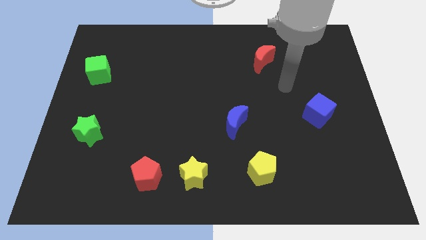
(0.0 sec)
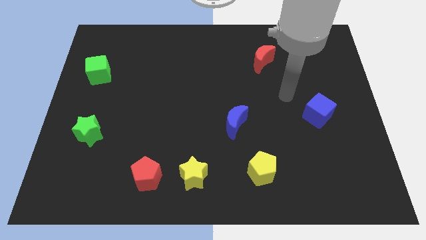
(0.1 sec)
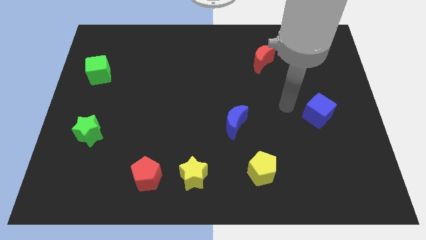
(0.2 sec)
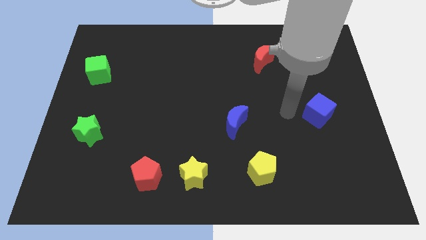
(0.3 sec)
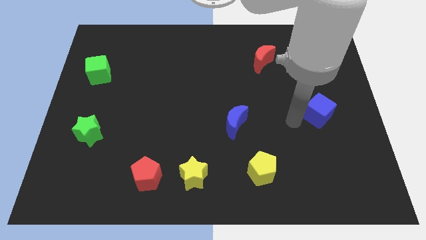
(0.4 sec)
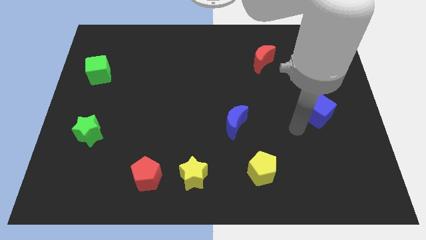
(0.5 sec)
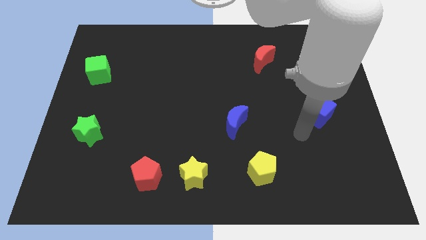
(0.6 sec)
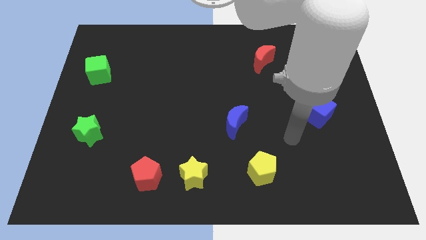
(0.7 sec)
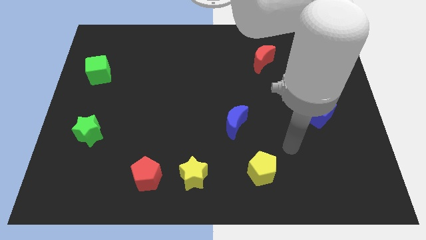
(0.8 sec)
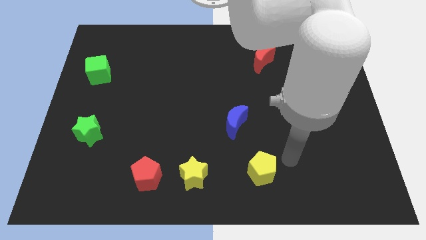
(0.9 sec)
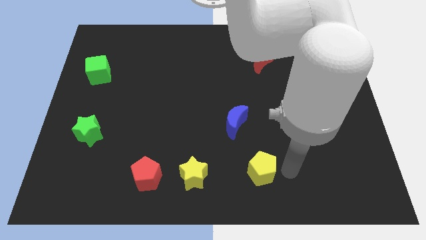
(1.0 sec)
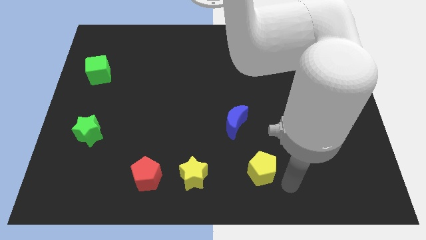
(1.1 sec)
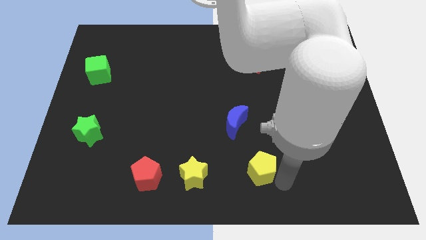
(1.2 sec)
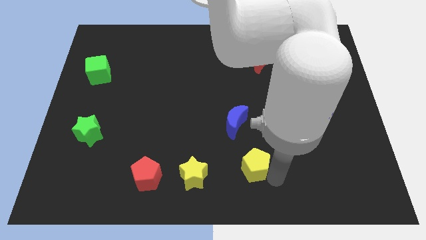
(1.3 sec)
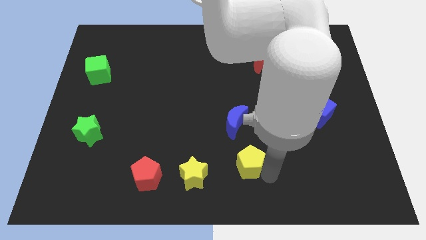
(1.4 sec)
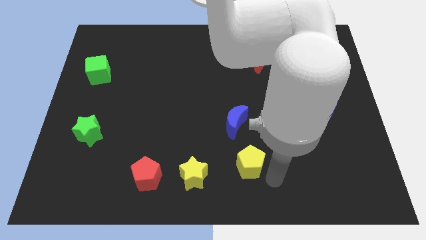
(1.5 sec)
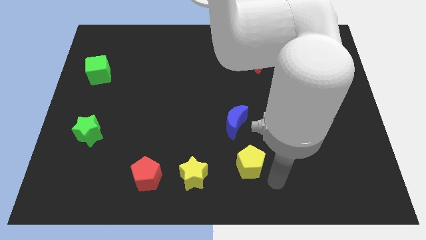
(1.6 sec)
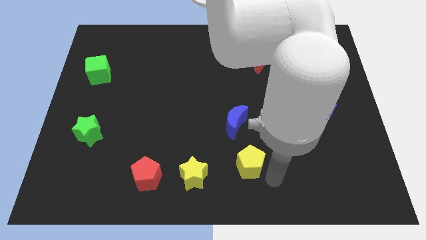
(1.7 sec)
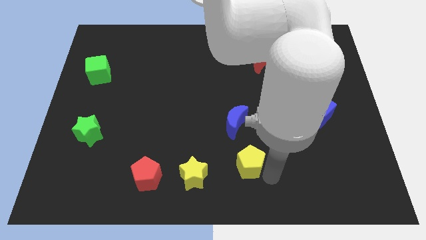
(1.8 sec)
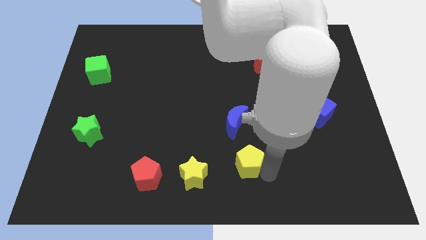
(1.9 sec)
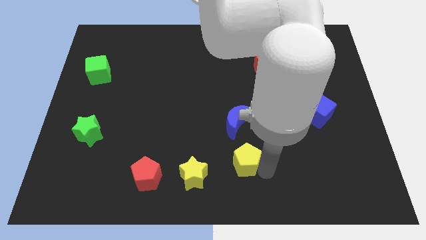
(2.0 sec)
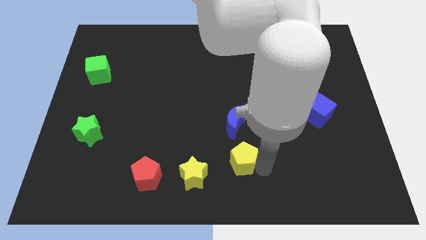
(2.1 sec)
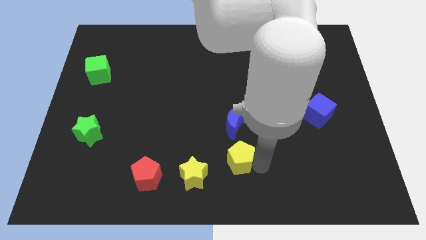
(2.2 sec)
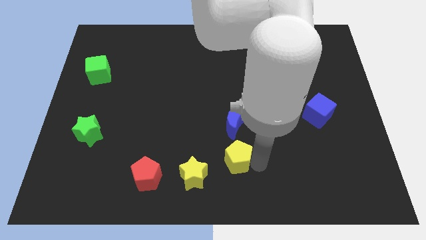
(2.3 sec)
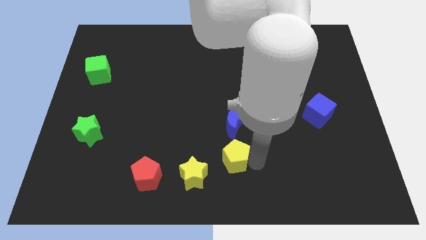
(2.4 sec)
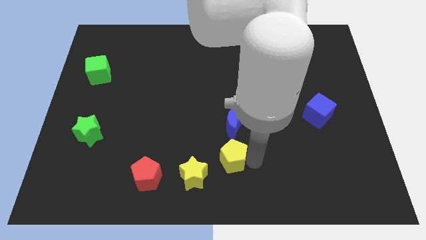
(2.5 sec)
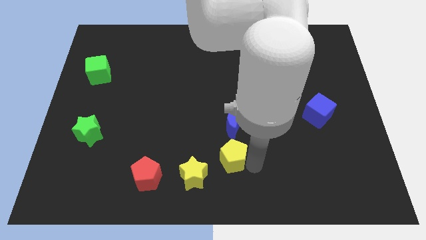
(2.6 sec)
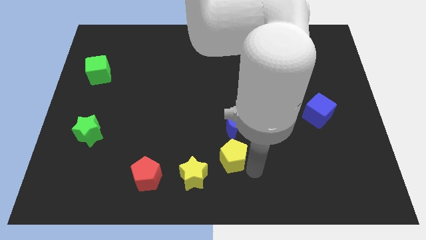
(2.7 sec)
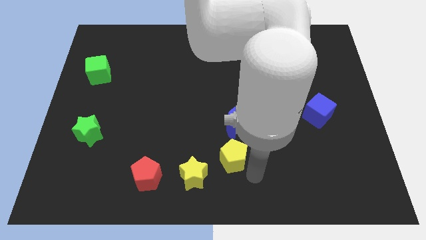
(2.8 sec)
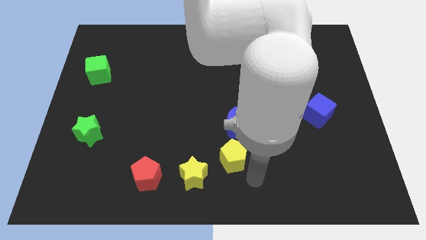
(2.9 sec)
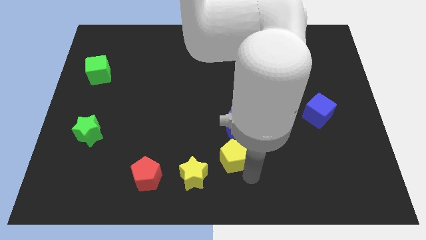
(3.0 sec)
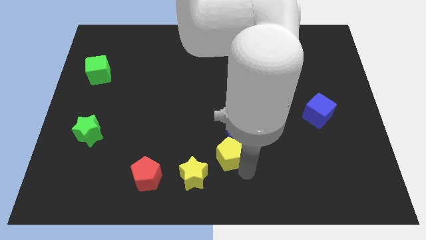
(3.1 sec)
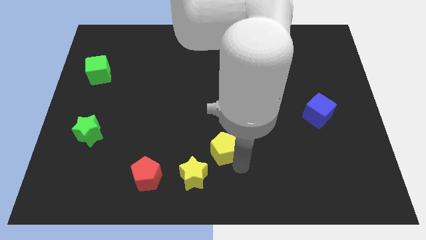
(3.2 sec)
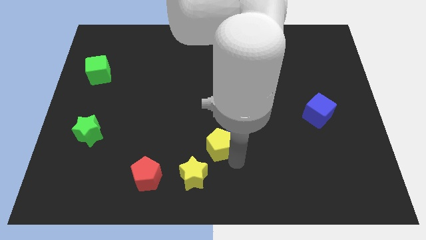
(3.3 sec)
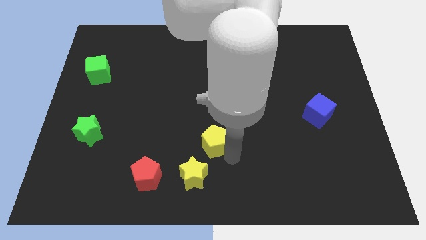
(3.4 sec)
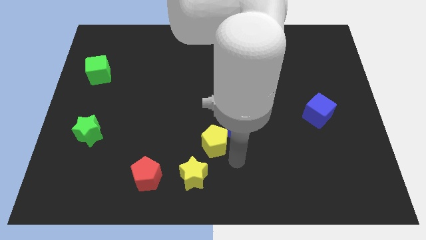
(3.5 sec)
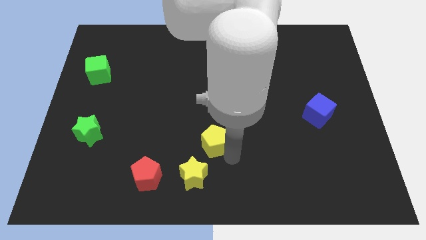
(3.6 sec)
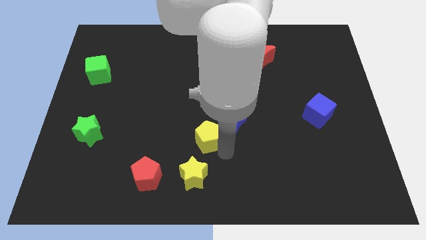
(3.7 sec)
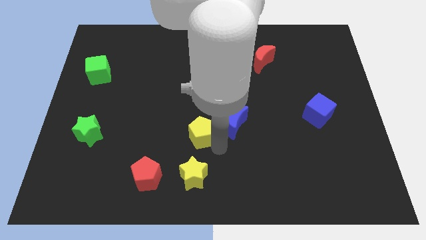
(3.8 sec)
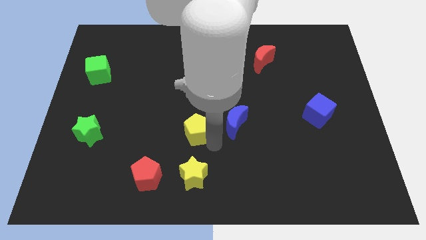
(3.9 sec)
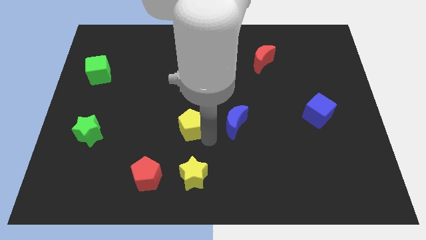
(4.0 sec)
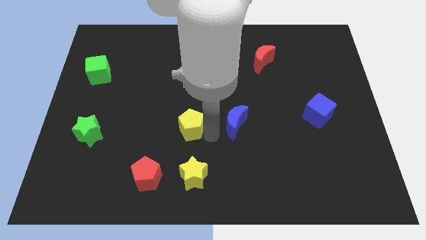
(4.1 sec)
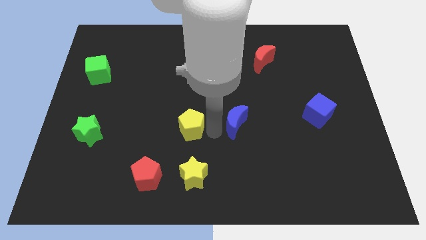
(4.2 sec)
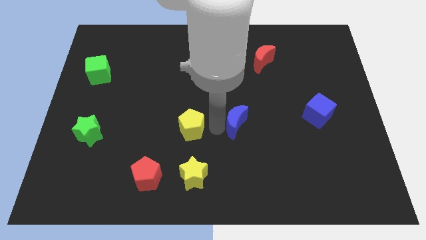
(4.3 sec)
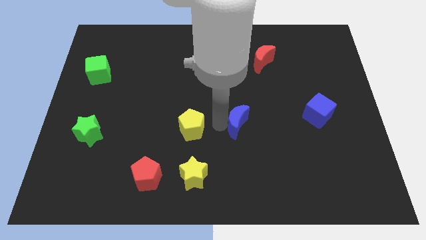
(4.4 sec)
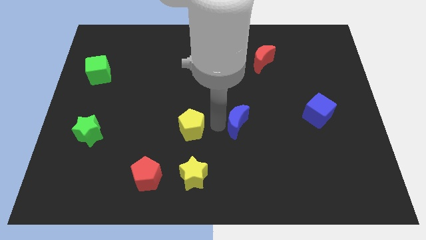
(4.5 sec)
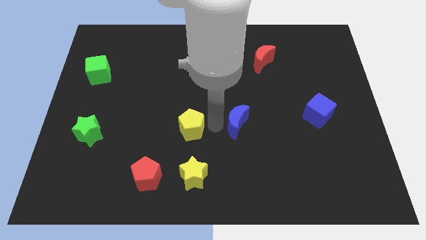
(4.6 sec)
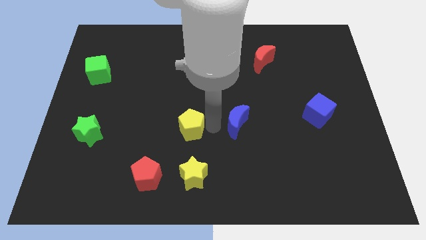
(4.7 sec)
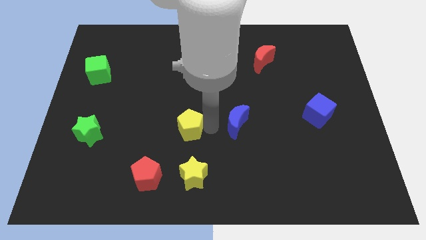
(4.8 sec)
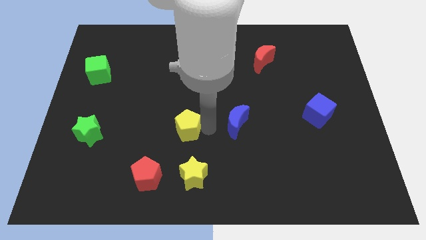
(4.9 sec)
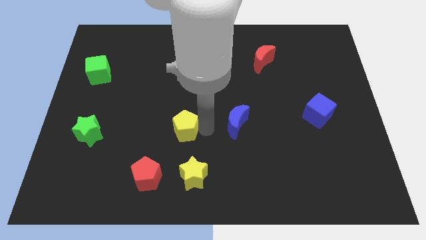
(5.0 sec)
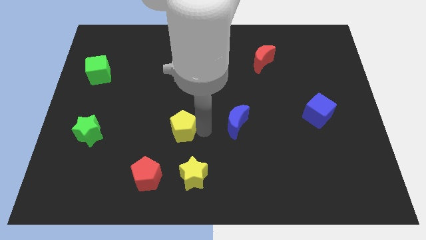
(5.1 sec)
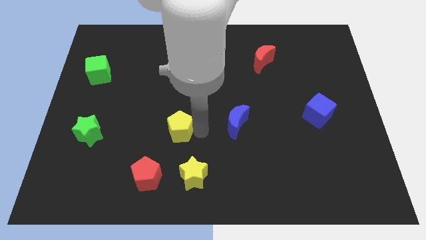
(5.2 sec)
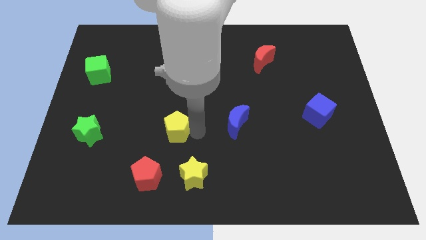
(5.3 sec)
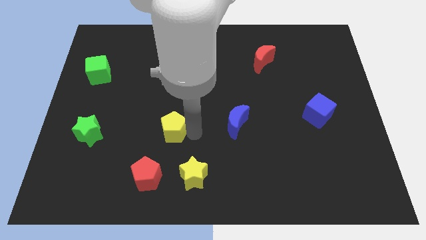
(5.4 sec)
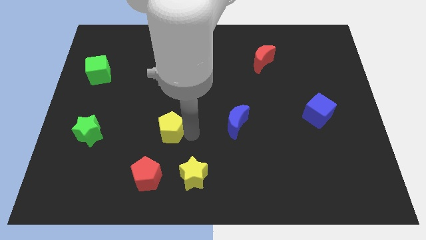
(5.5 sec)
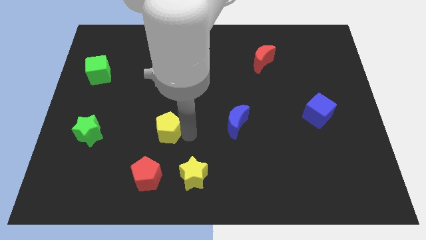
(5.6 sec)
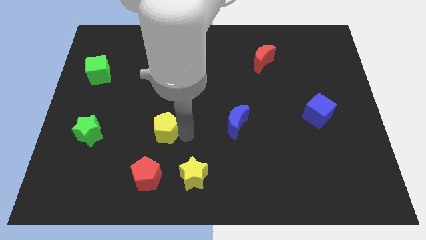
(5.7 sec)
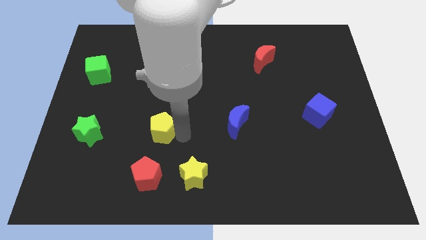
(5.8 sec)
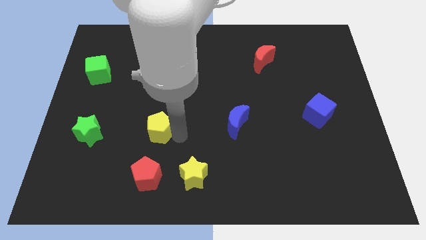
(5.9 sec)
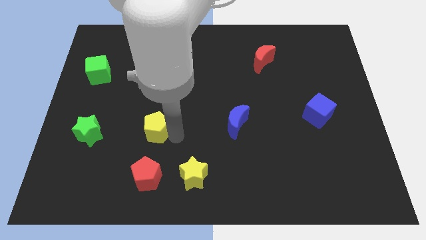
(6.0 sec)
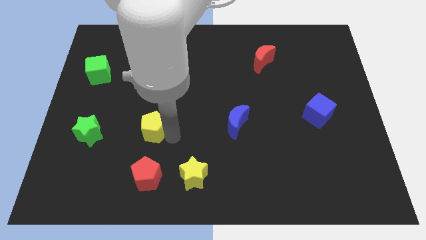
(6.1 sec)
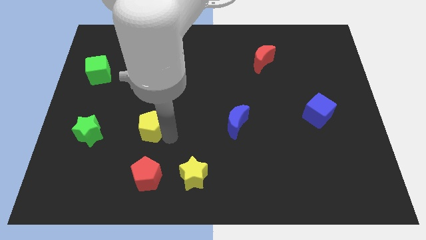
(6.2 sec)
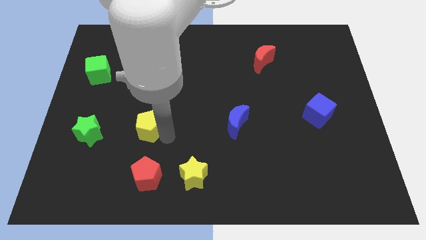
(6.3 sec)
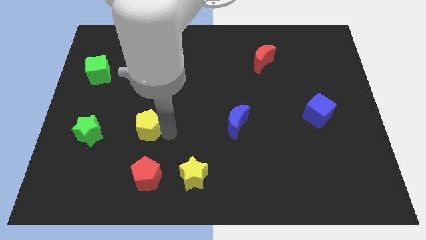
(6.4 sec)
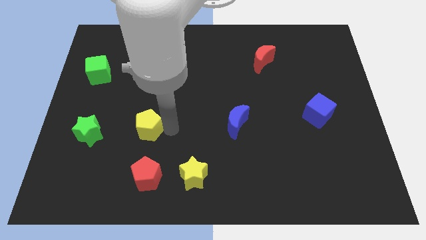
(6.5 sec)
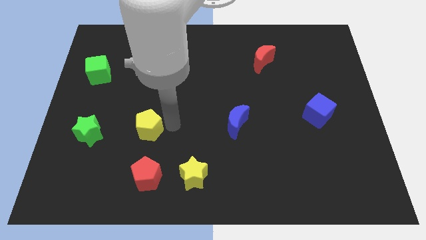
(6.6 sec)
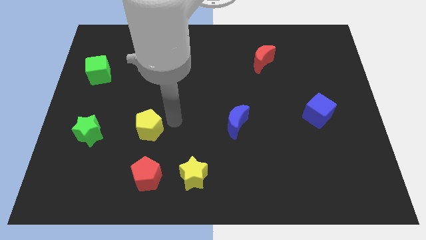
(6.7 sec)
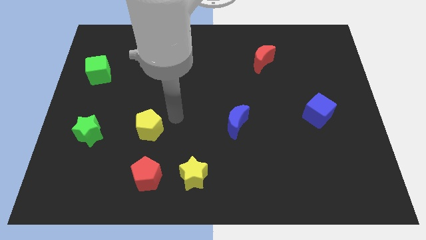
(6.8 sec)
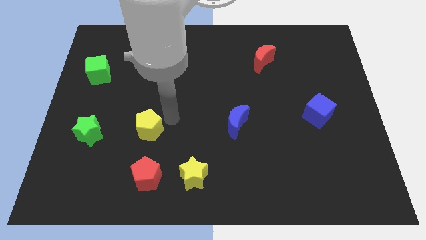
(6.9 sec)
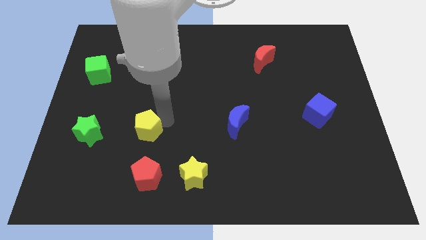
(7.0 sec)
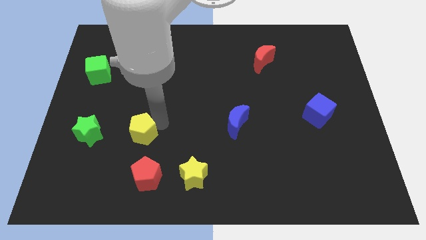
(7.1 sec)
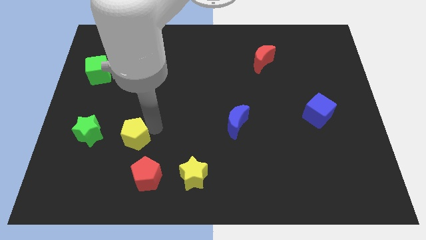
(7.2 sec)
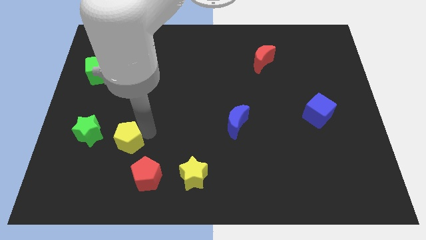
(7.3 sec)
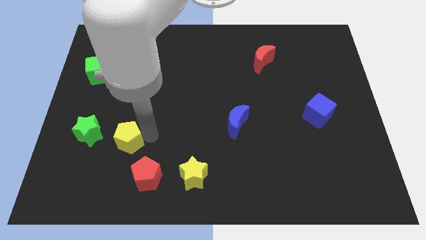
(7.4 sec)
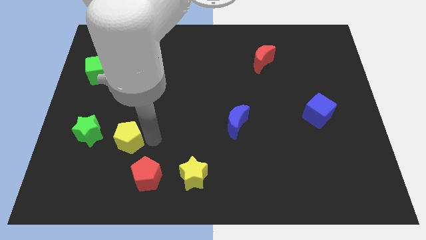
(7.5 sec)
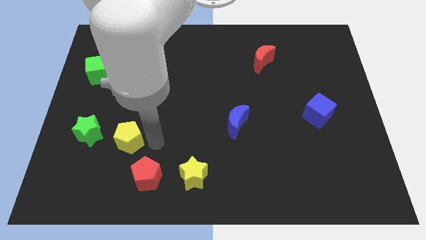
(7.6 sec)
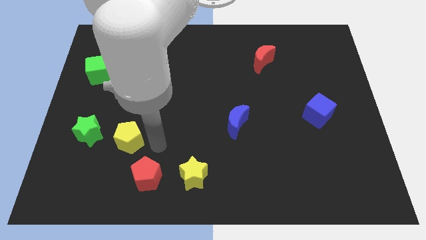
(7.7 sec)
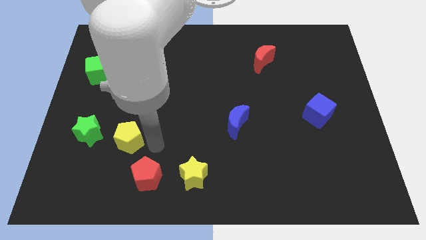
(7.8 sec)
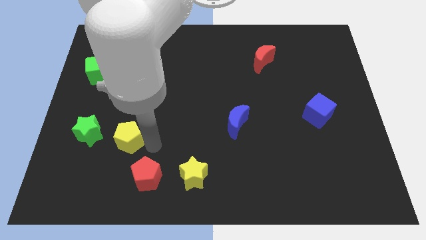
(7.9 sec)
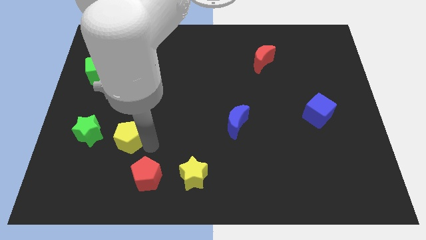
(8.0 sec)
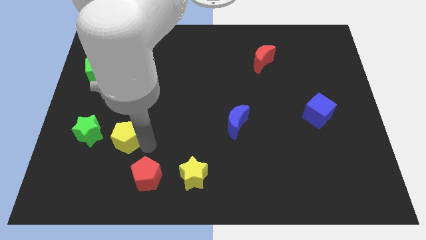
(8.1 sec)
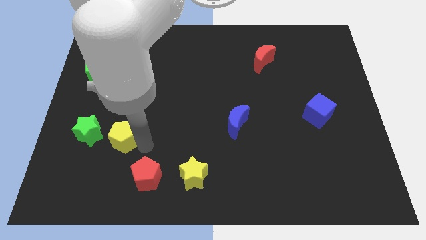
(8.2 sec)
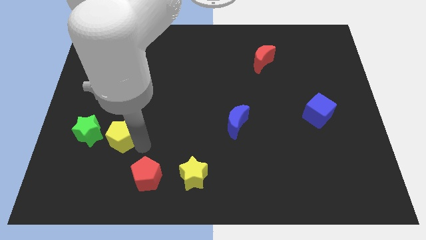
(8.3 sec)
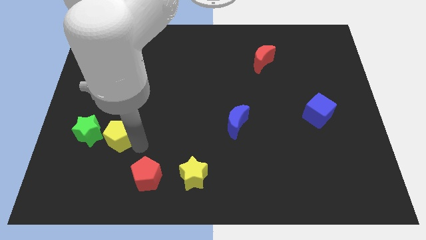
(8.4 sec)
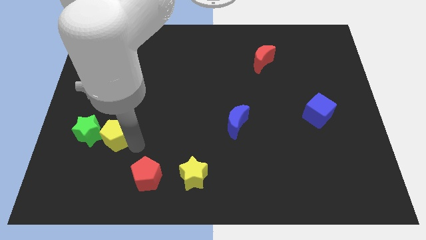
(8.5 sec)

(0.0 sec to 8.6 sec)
move the yellow pentagon to the green star

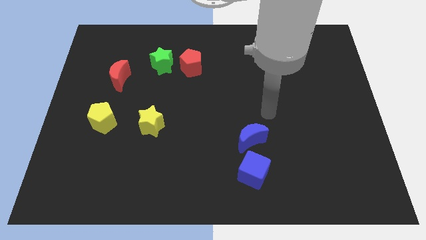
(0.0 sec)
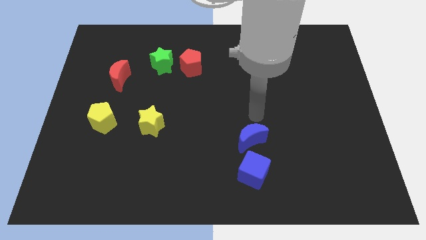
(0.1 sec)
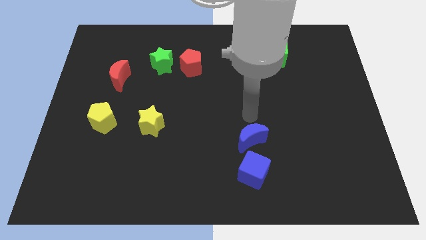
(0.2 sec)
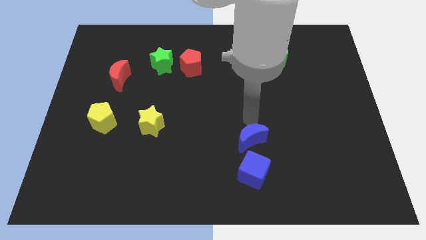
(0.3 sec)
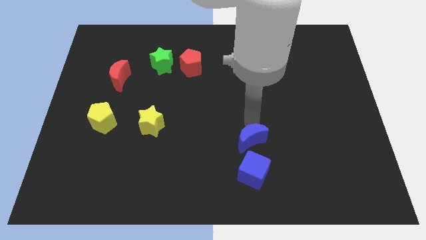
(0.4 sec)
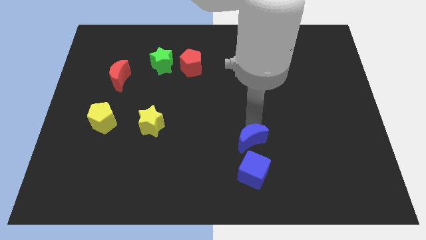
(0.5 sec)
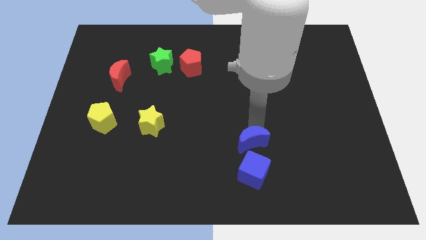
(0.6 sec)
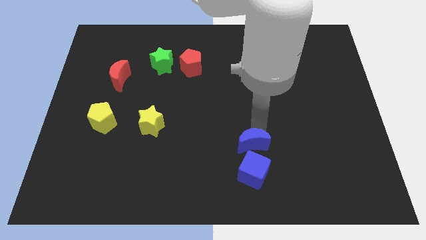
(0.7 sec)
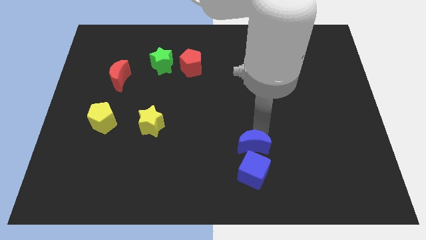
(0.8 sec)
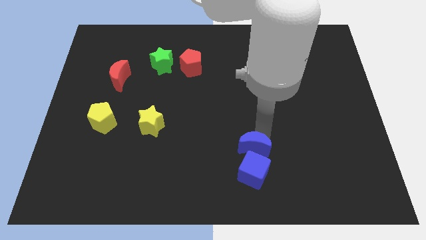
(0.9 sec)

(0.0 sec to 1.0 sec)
slide the blue moon close to the blue cube
